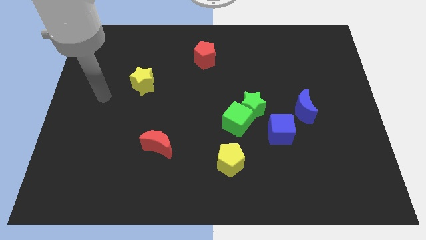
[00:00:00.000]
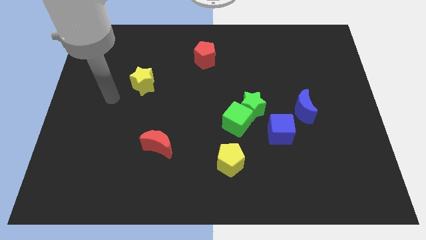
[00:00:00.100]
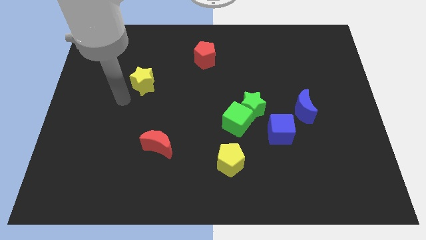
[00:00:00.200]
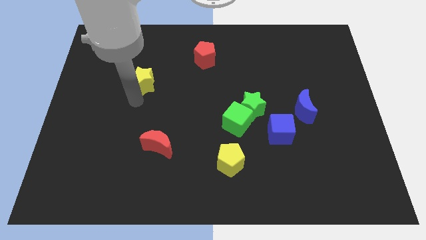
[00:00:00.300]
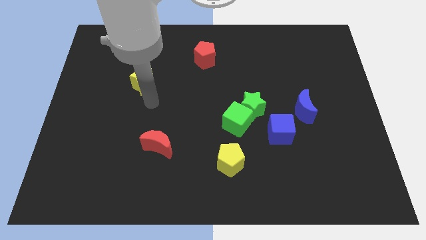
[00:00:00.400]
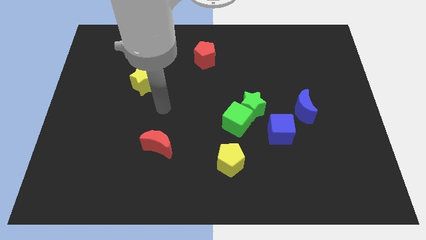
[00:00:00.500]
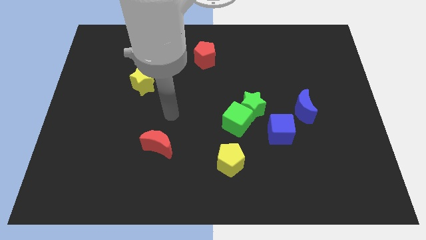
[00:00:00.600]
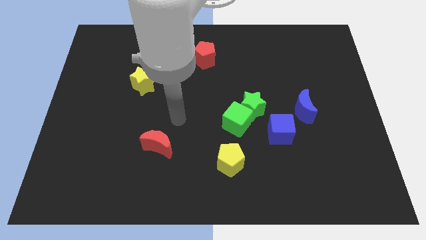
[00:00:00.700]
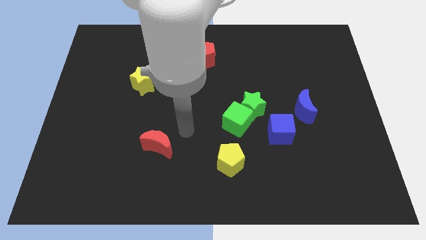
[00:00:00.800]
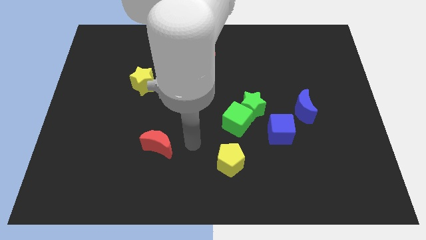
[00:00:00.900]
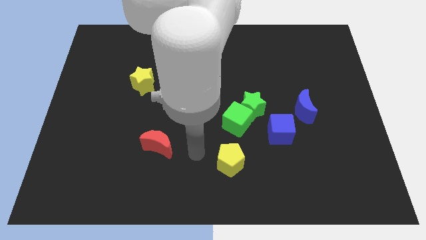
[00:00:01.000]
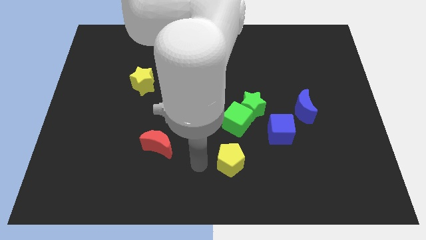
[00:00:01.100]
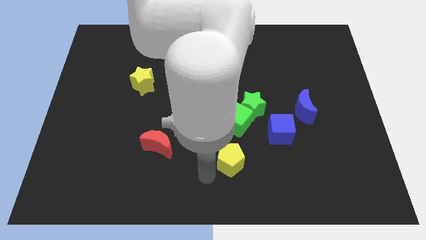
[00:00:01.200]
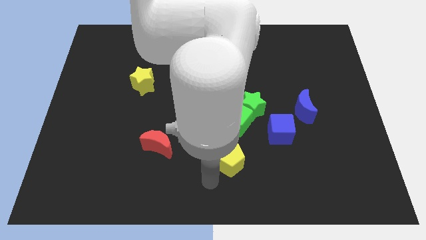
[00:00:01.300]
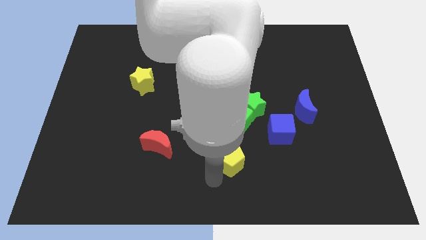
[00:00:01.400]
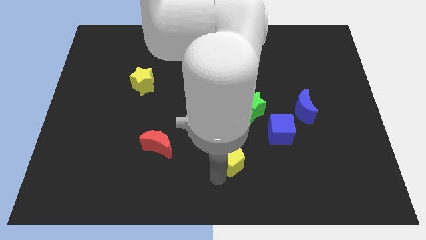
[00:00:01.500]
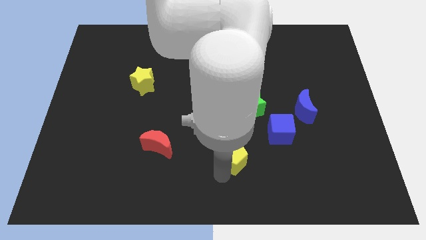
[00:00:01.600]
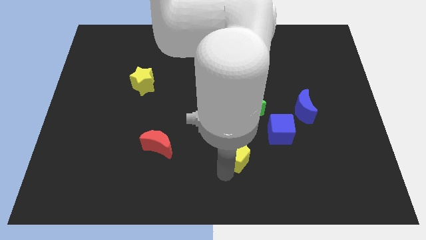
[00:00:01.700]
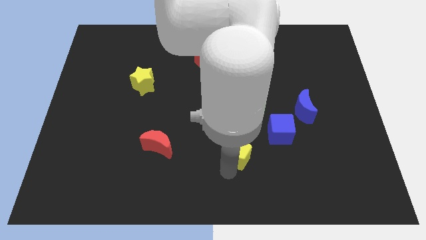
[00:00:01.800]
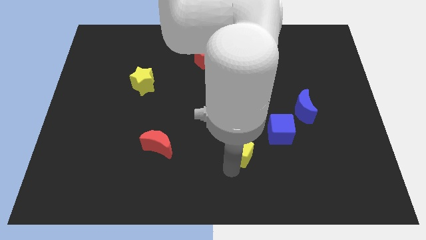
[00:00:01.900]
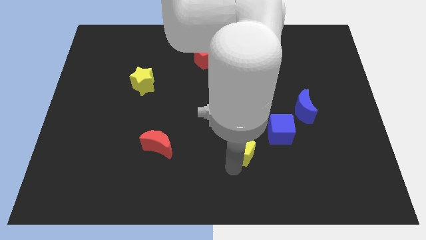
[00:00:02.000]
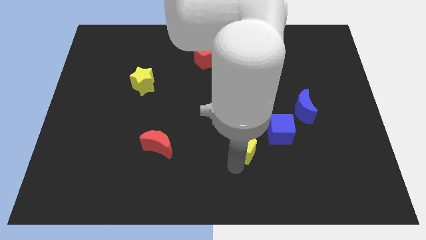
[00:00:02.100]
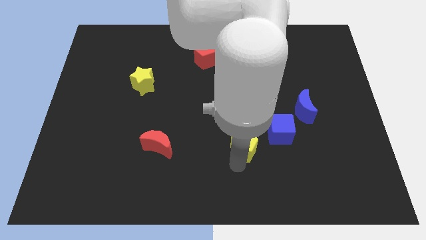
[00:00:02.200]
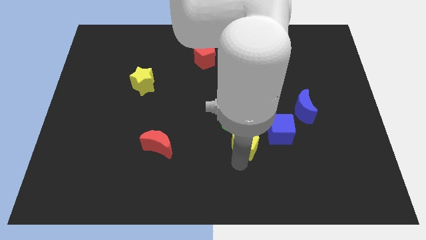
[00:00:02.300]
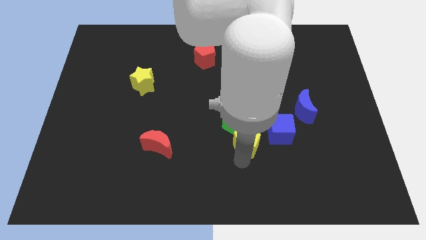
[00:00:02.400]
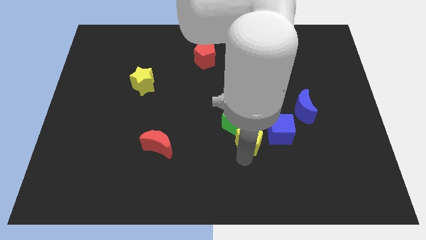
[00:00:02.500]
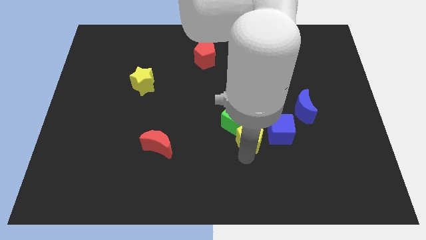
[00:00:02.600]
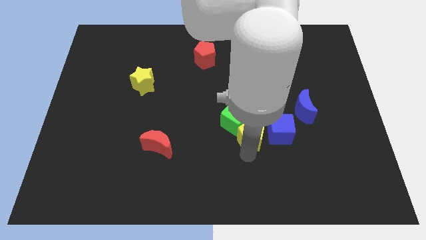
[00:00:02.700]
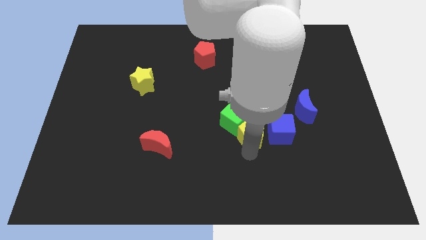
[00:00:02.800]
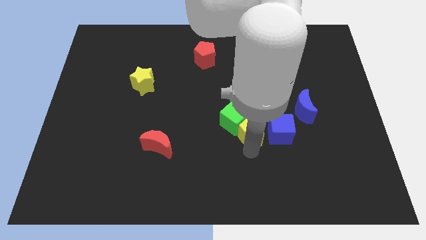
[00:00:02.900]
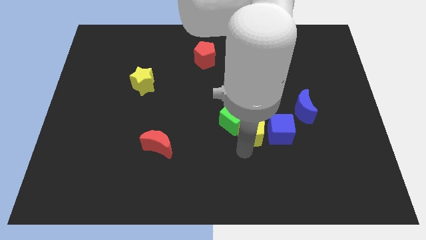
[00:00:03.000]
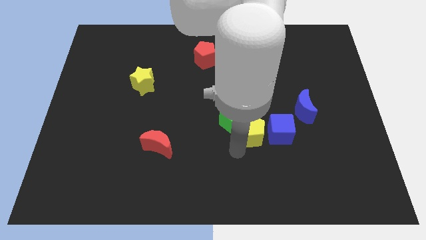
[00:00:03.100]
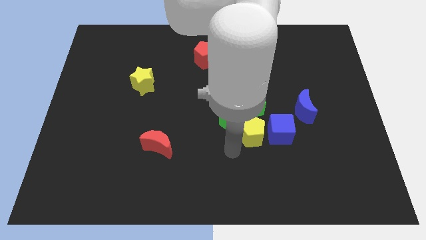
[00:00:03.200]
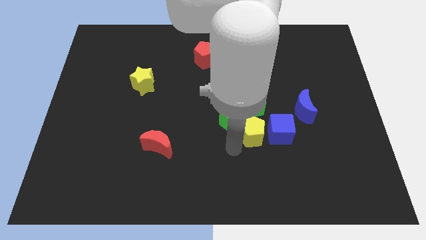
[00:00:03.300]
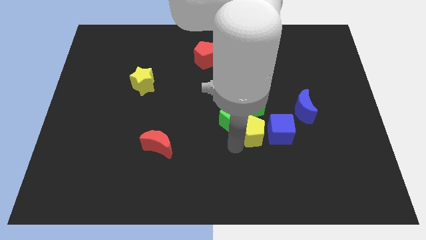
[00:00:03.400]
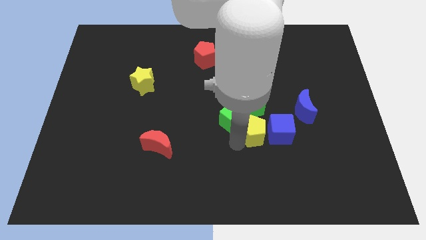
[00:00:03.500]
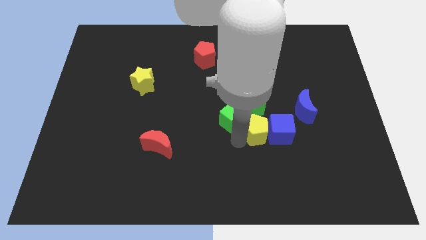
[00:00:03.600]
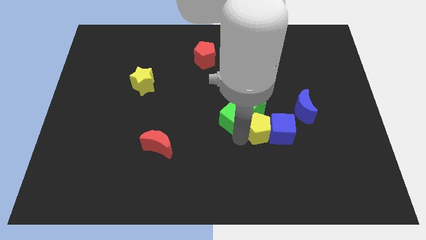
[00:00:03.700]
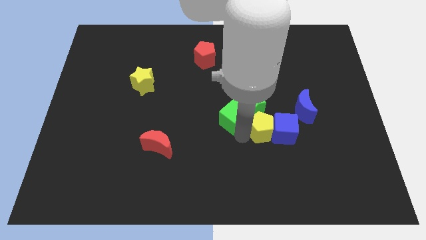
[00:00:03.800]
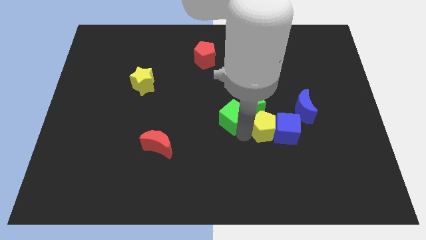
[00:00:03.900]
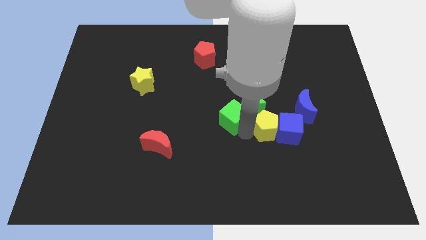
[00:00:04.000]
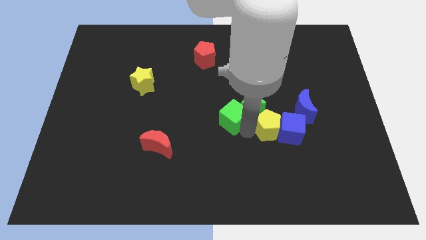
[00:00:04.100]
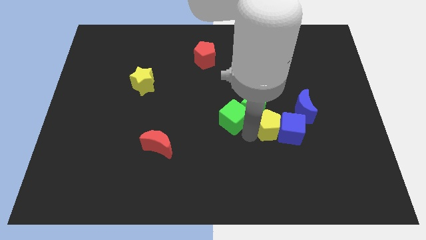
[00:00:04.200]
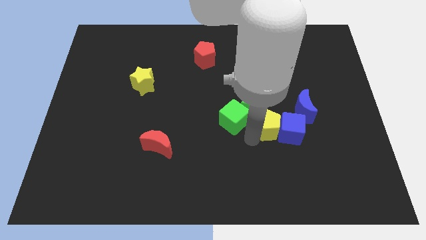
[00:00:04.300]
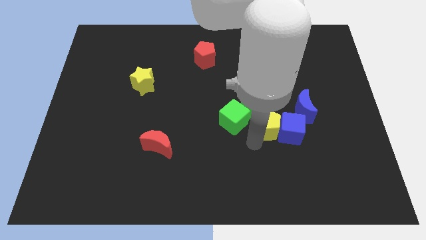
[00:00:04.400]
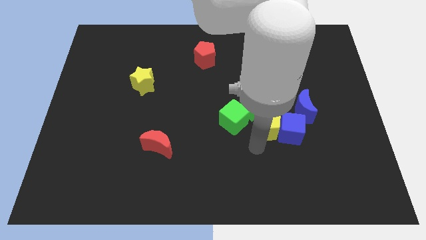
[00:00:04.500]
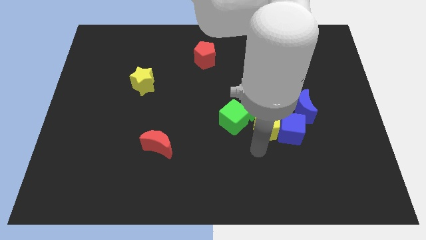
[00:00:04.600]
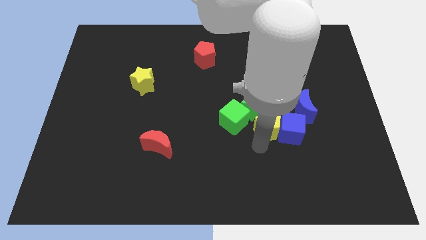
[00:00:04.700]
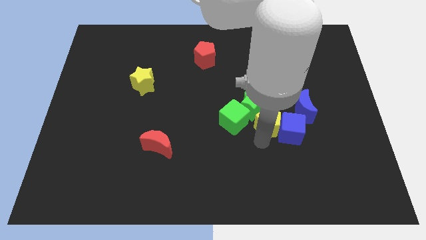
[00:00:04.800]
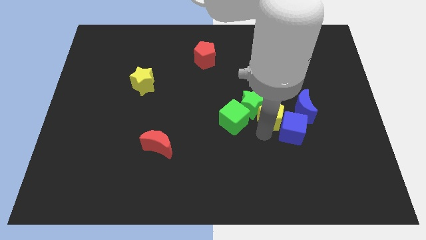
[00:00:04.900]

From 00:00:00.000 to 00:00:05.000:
push the yellow pentagon to the top side of the blue cube

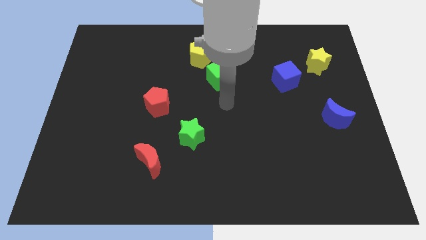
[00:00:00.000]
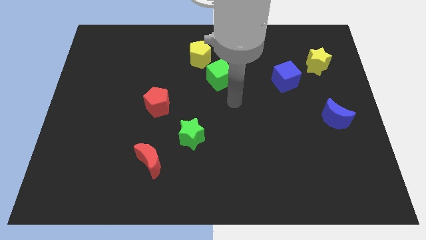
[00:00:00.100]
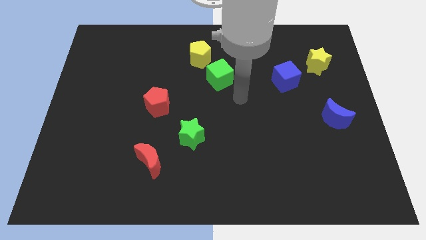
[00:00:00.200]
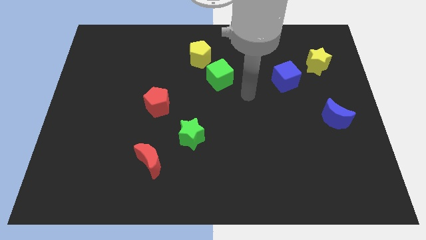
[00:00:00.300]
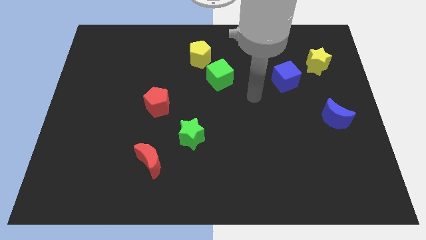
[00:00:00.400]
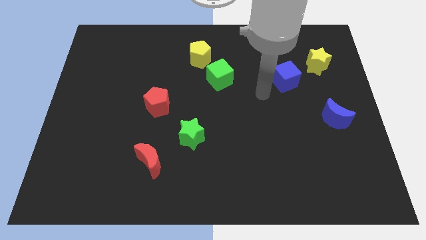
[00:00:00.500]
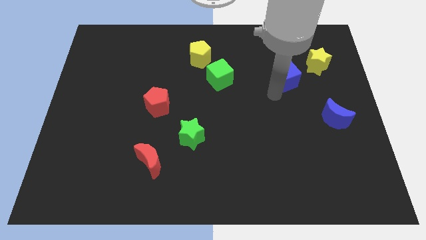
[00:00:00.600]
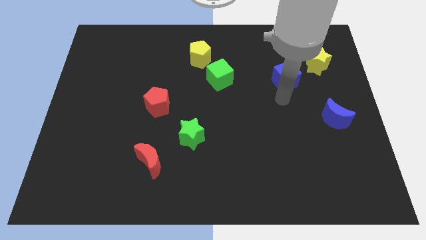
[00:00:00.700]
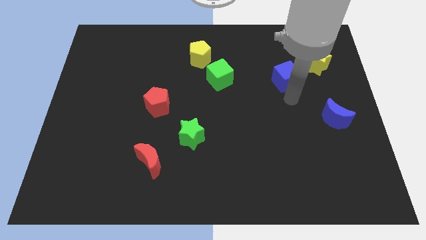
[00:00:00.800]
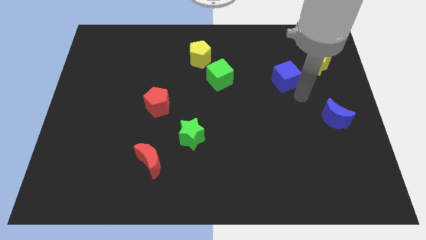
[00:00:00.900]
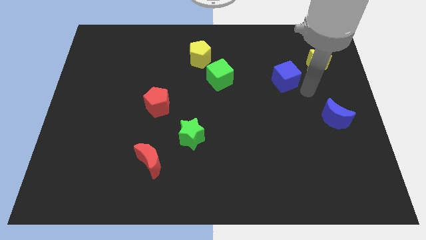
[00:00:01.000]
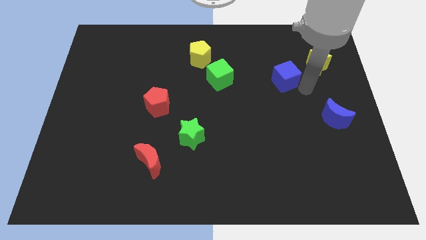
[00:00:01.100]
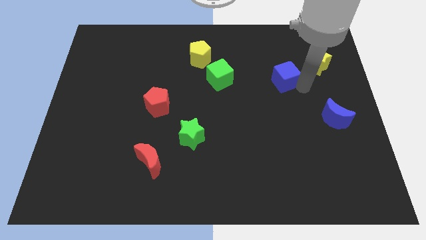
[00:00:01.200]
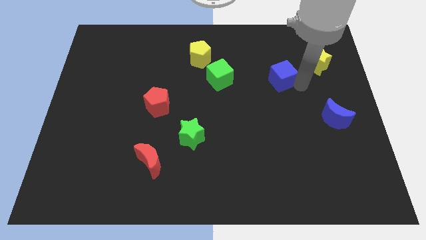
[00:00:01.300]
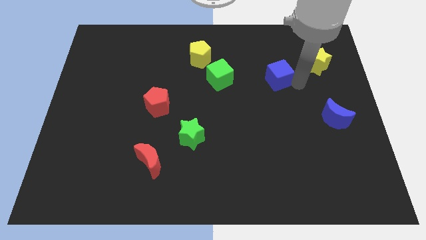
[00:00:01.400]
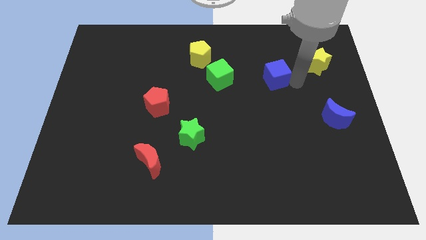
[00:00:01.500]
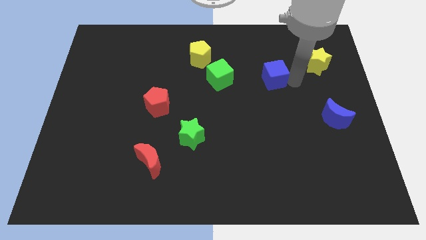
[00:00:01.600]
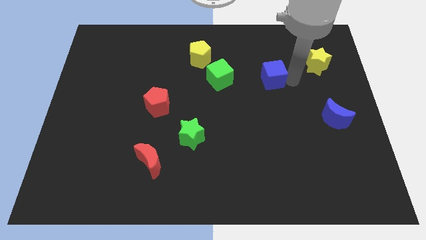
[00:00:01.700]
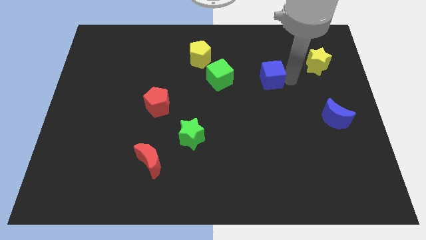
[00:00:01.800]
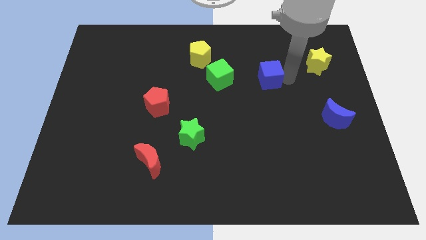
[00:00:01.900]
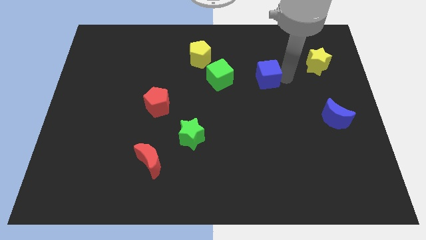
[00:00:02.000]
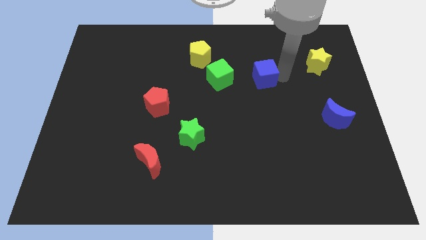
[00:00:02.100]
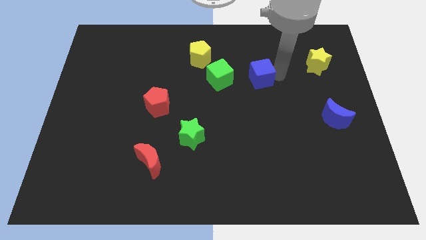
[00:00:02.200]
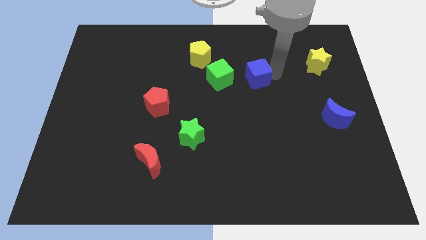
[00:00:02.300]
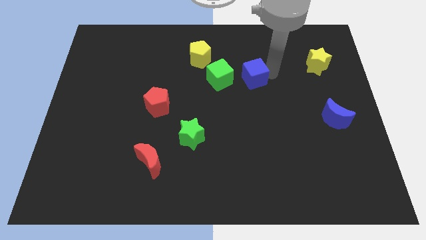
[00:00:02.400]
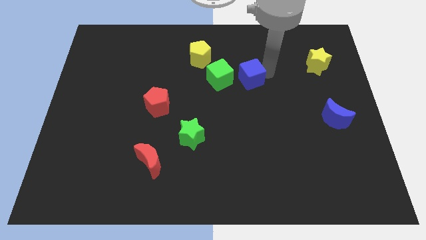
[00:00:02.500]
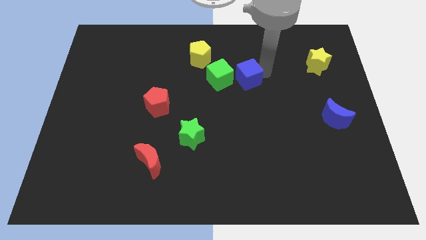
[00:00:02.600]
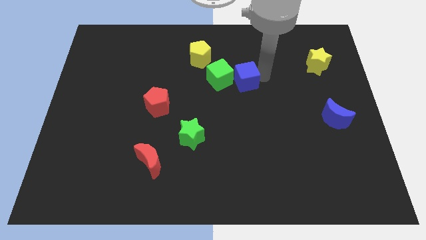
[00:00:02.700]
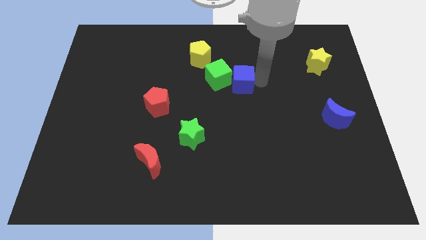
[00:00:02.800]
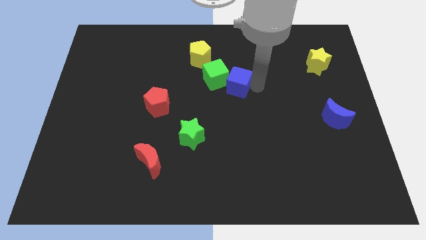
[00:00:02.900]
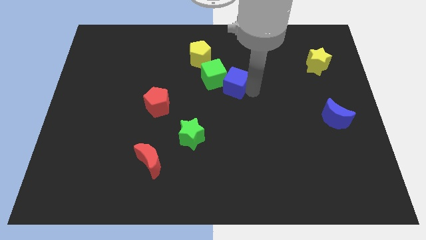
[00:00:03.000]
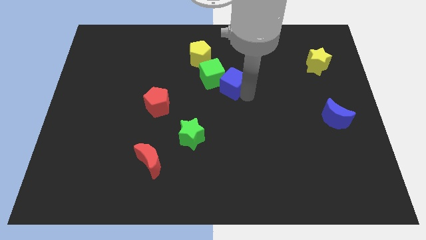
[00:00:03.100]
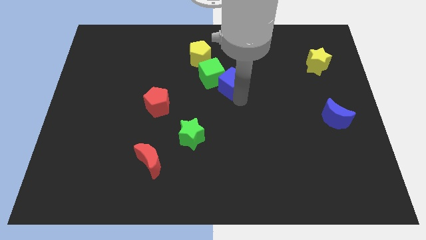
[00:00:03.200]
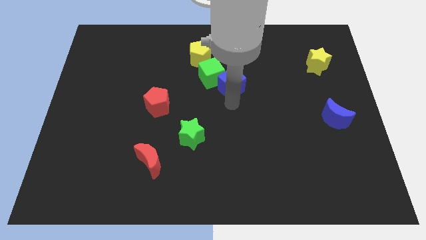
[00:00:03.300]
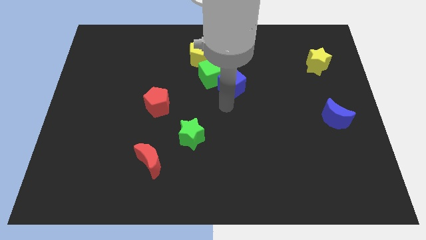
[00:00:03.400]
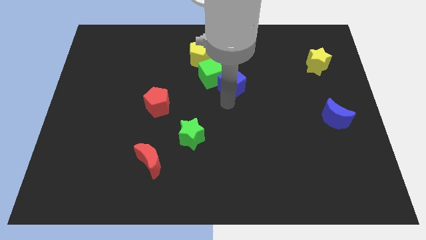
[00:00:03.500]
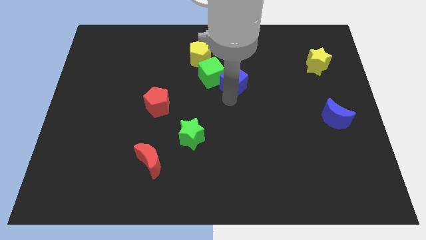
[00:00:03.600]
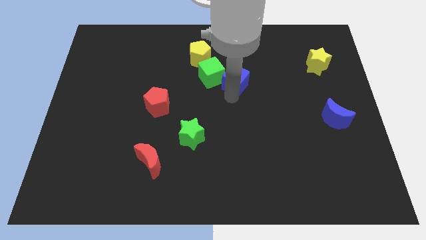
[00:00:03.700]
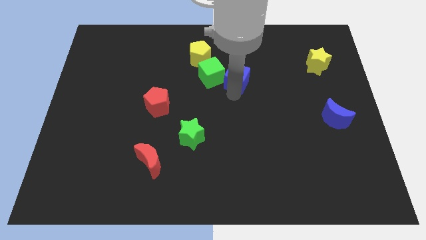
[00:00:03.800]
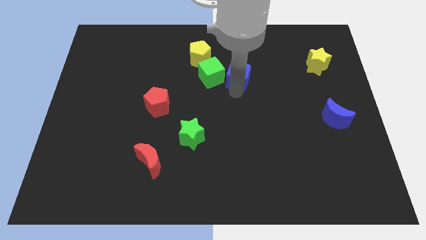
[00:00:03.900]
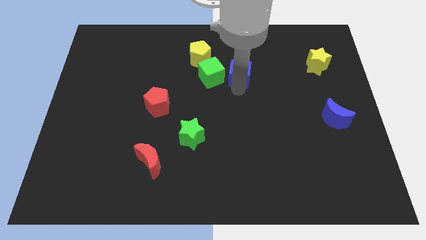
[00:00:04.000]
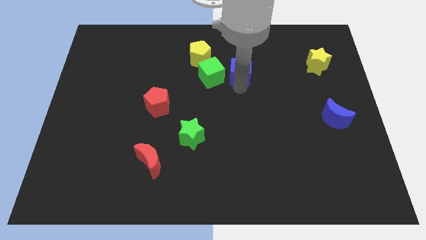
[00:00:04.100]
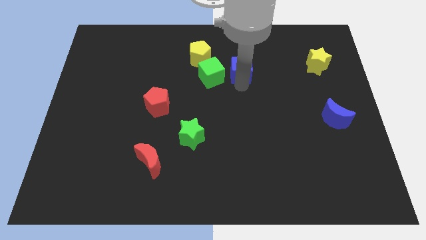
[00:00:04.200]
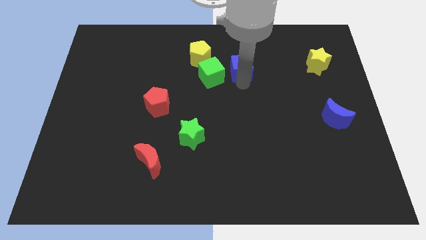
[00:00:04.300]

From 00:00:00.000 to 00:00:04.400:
slide the blue cube to the right side of the yellow pentagon
